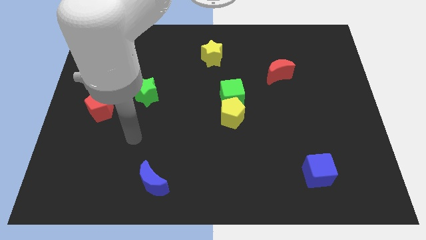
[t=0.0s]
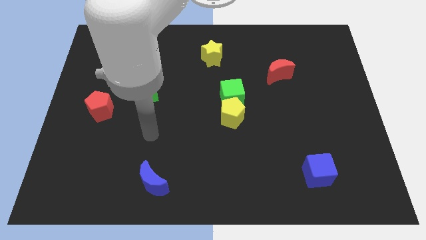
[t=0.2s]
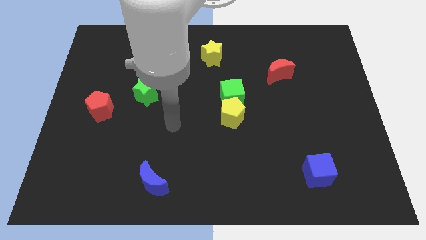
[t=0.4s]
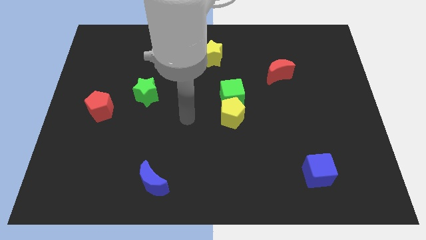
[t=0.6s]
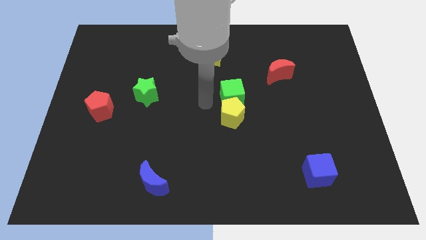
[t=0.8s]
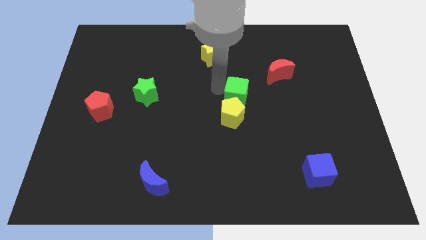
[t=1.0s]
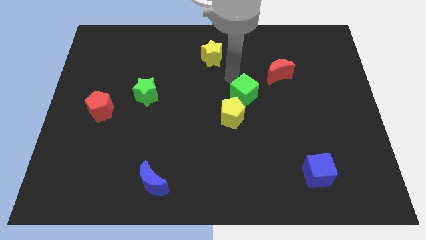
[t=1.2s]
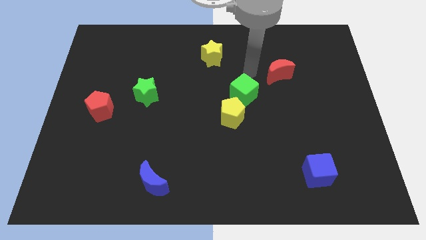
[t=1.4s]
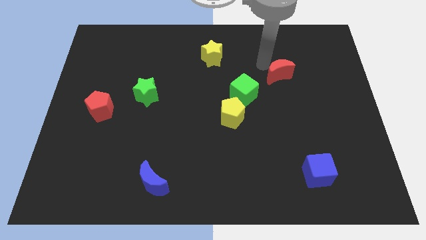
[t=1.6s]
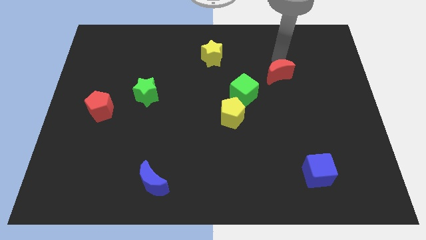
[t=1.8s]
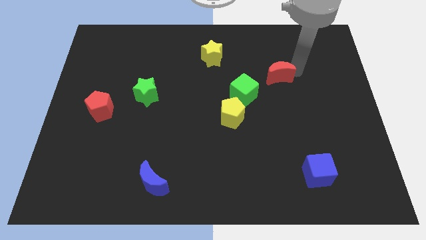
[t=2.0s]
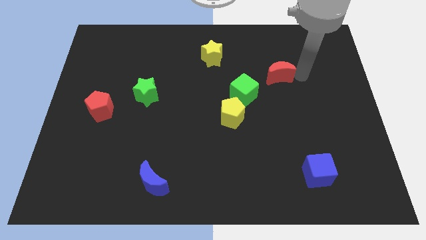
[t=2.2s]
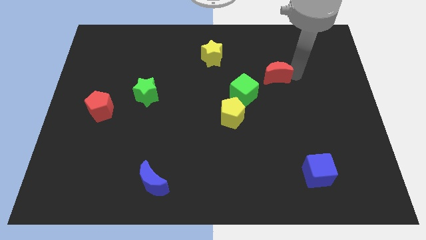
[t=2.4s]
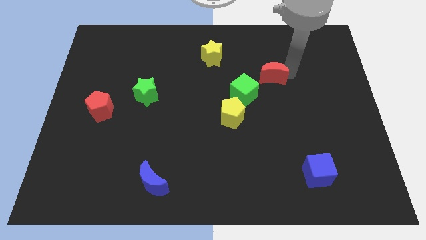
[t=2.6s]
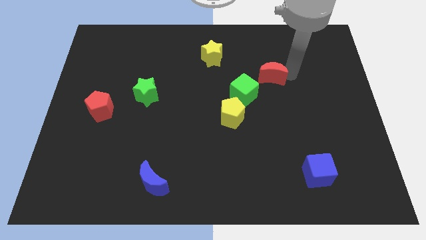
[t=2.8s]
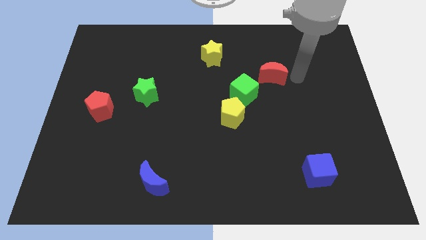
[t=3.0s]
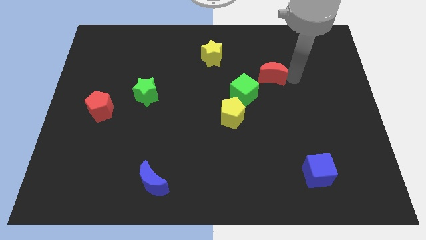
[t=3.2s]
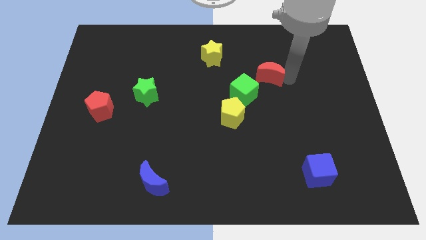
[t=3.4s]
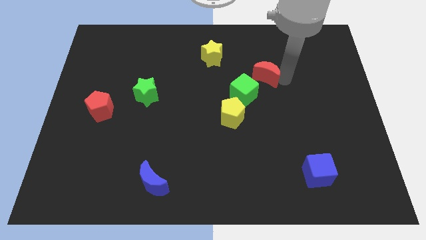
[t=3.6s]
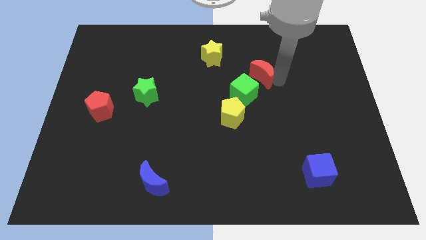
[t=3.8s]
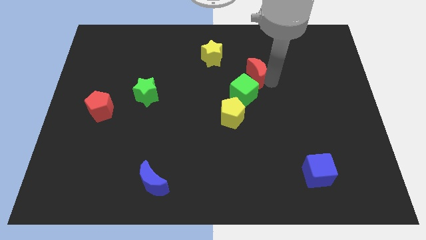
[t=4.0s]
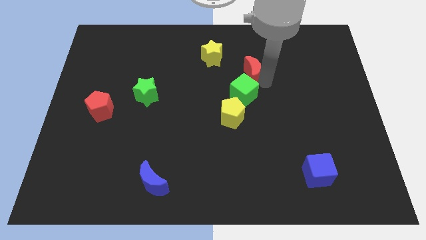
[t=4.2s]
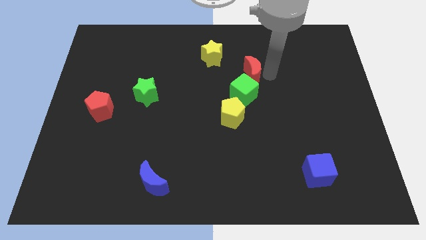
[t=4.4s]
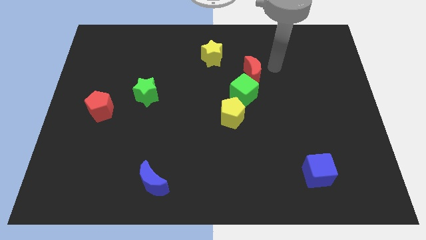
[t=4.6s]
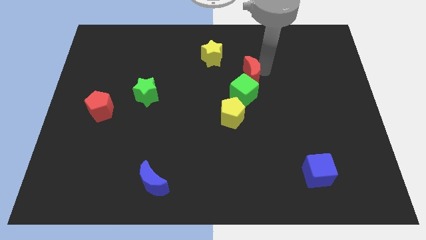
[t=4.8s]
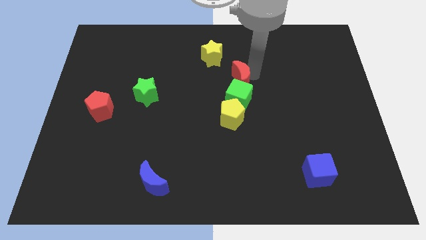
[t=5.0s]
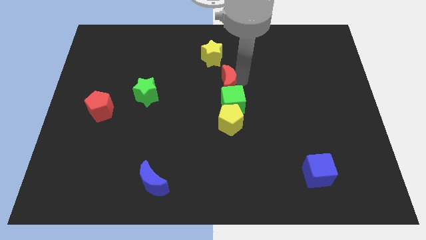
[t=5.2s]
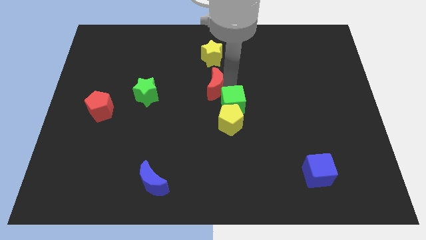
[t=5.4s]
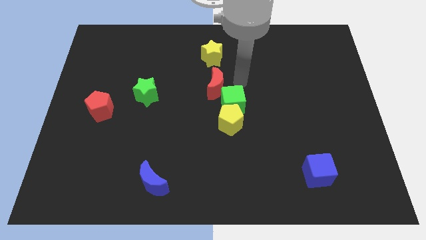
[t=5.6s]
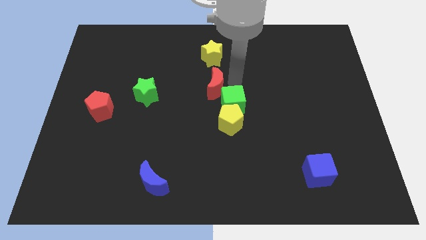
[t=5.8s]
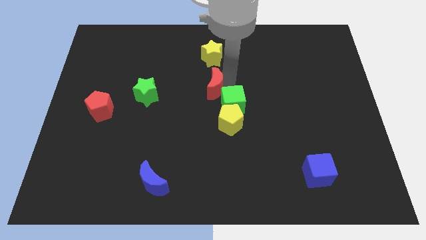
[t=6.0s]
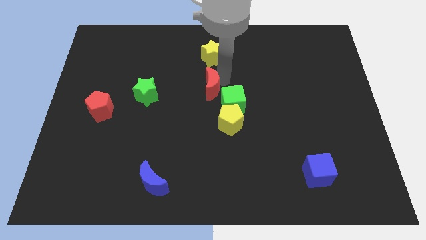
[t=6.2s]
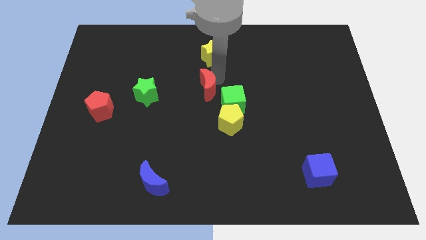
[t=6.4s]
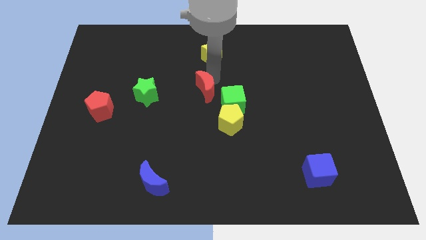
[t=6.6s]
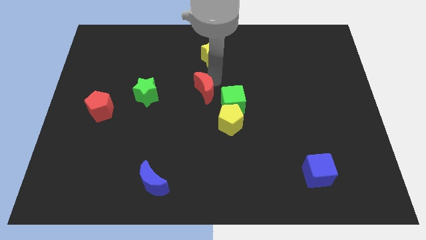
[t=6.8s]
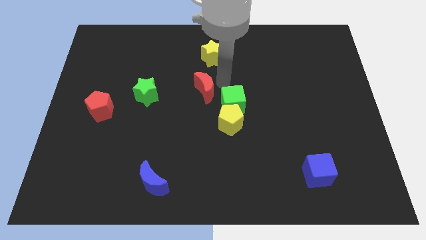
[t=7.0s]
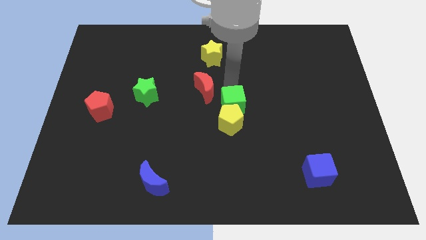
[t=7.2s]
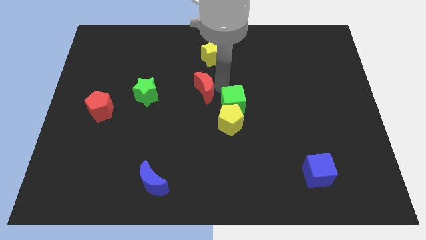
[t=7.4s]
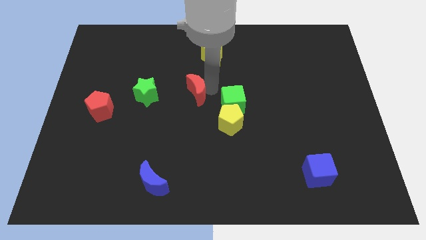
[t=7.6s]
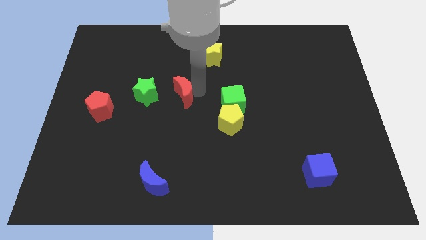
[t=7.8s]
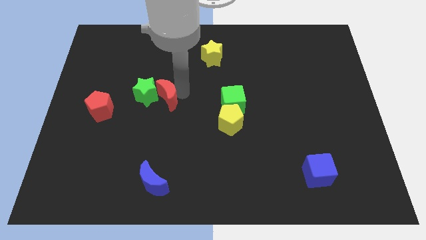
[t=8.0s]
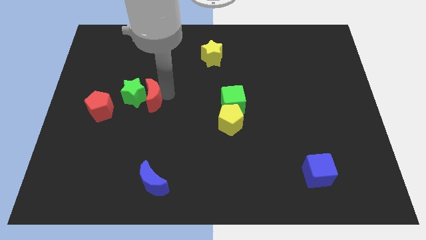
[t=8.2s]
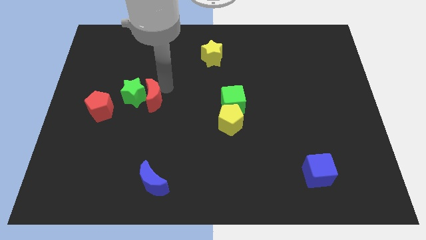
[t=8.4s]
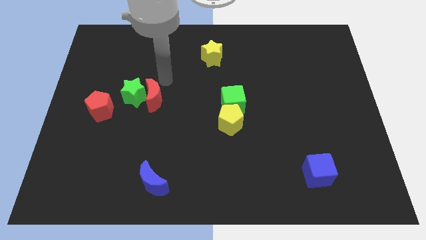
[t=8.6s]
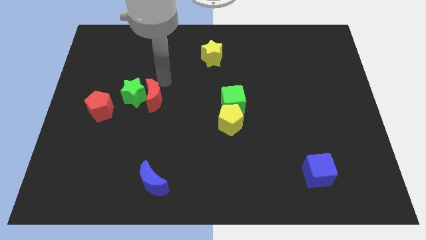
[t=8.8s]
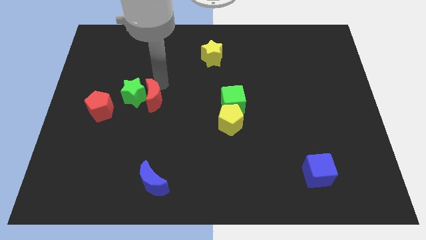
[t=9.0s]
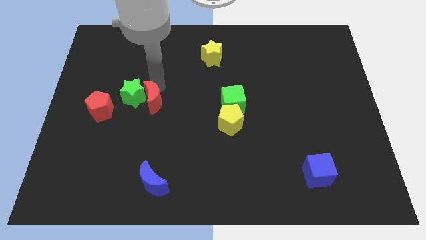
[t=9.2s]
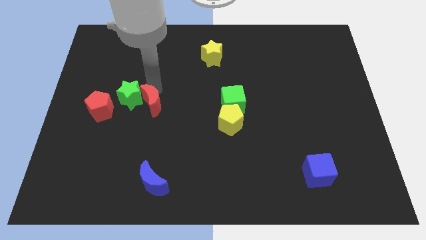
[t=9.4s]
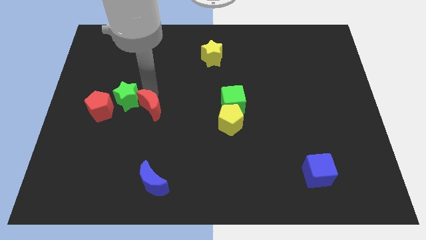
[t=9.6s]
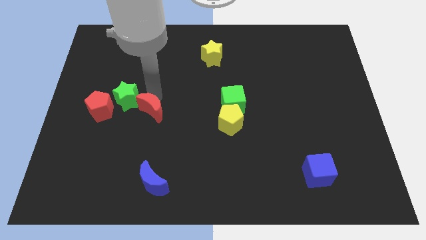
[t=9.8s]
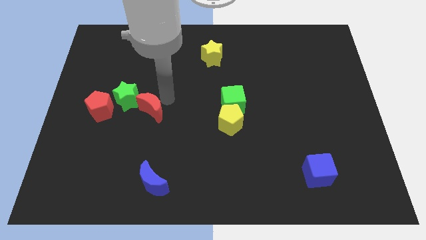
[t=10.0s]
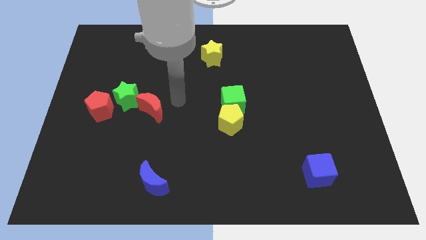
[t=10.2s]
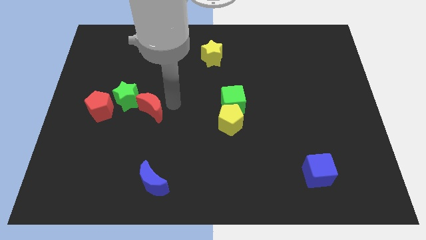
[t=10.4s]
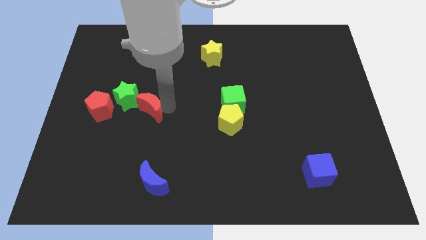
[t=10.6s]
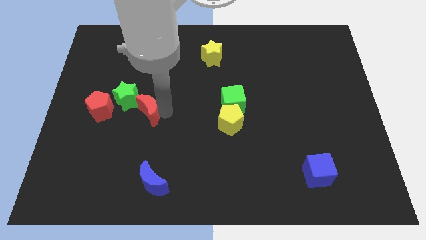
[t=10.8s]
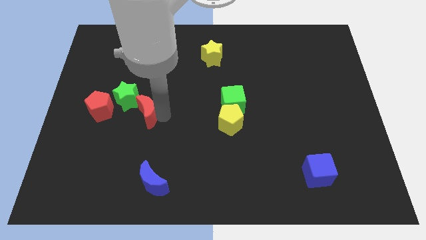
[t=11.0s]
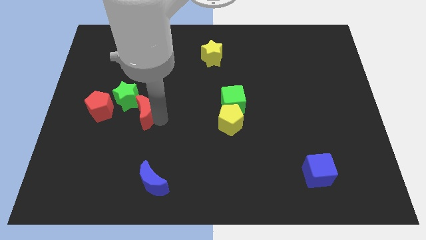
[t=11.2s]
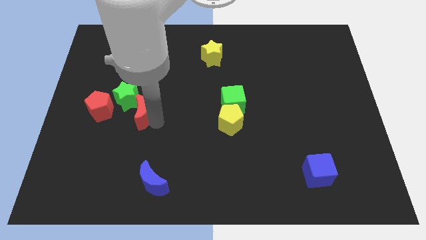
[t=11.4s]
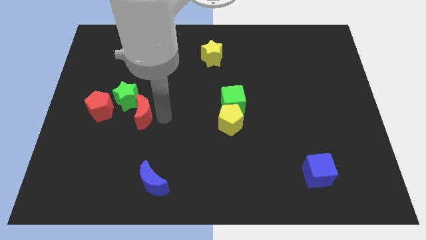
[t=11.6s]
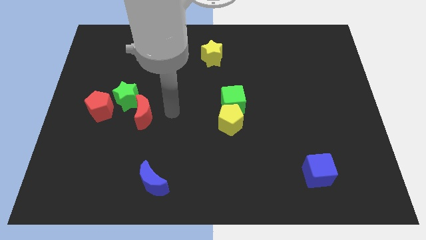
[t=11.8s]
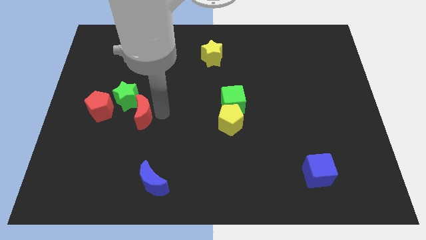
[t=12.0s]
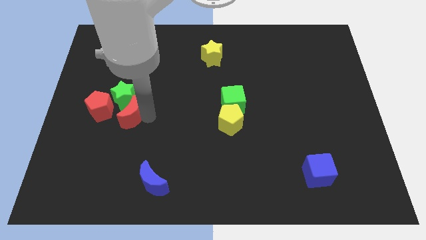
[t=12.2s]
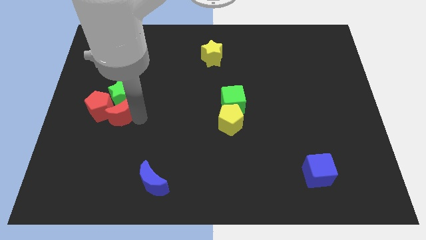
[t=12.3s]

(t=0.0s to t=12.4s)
slide the red moon to the red pentagon

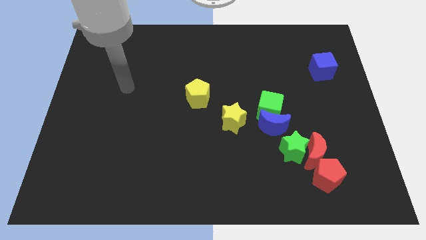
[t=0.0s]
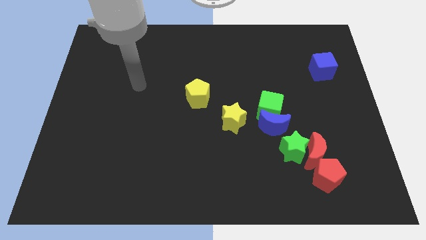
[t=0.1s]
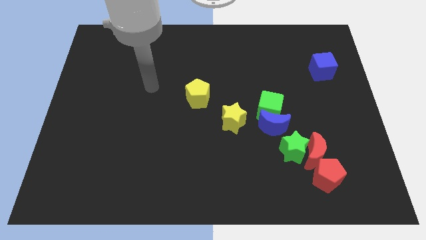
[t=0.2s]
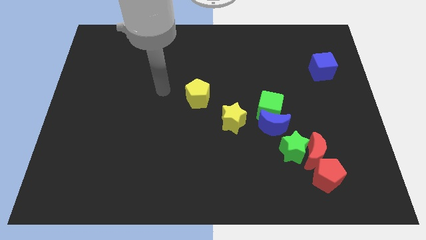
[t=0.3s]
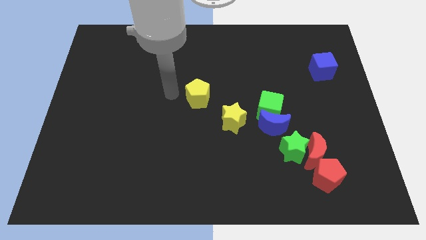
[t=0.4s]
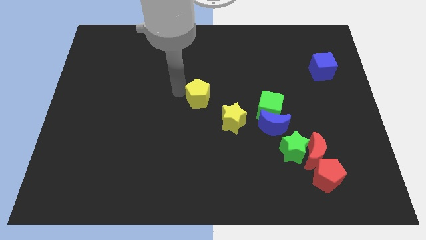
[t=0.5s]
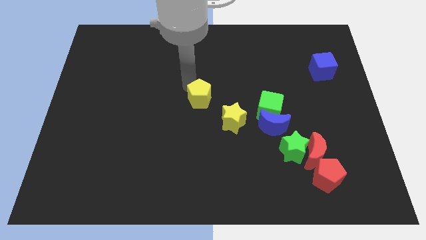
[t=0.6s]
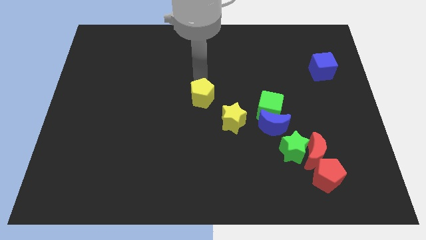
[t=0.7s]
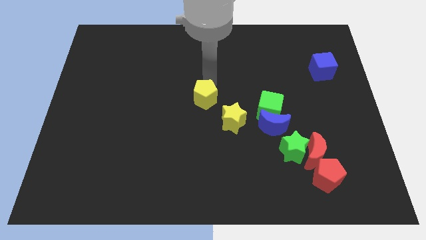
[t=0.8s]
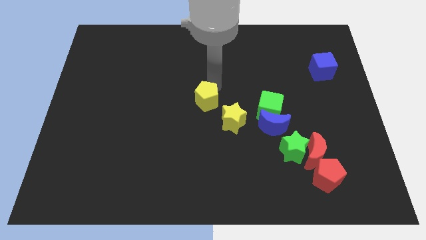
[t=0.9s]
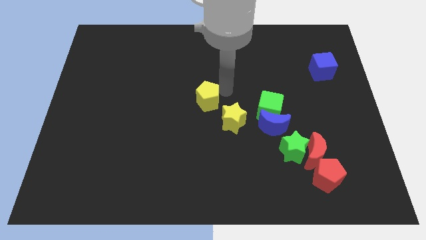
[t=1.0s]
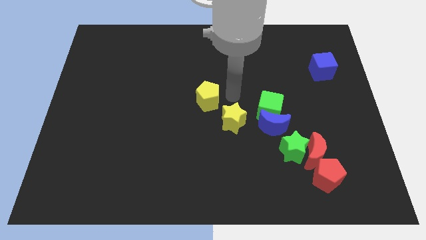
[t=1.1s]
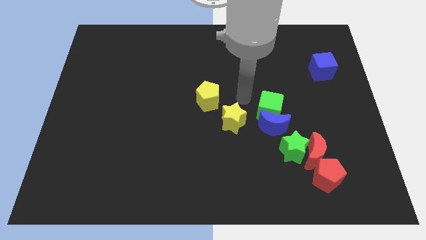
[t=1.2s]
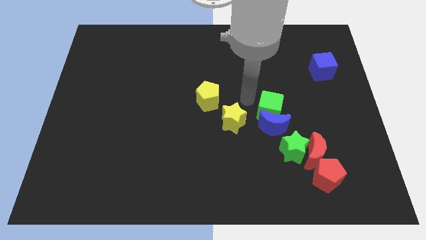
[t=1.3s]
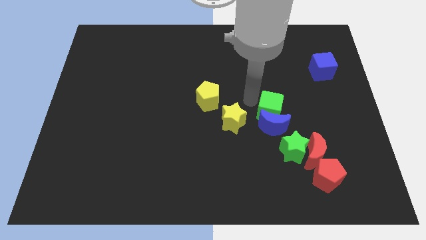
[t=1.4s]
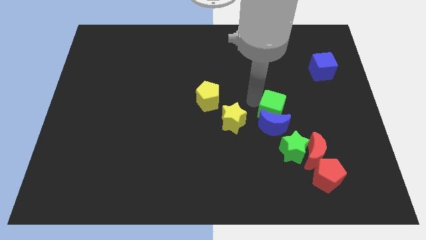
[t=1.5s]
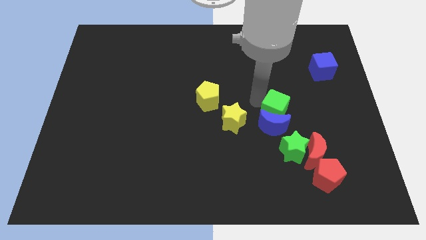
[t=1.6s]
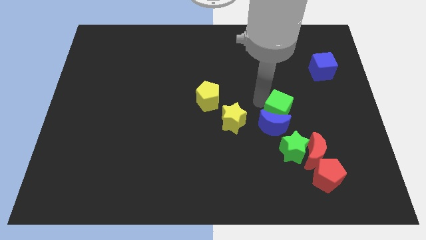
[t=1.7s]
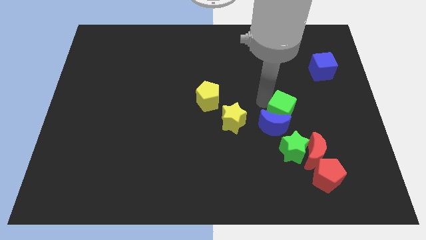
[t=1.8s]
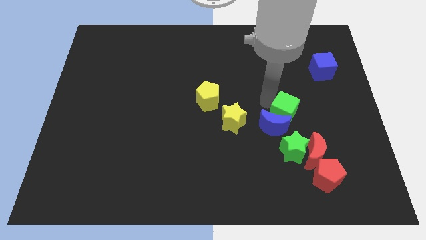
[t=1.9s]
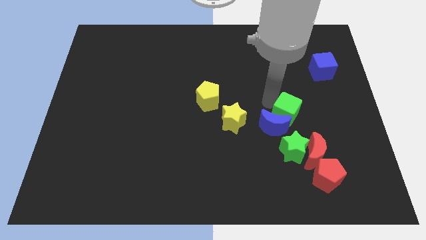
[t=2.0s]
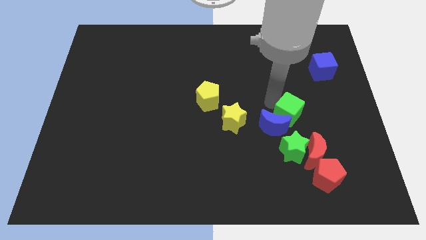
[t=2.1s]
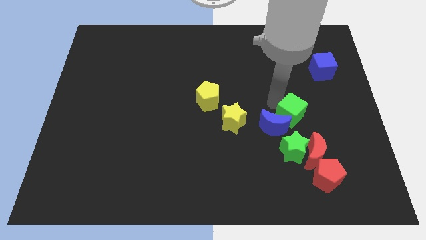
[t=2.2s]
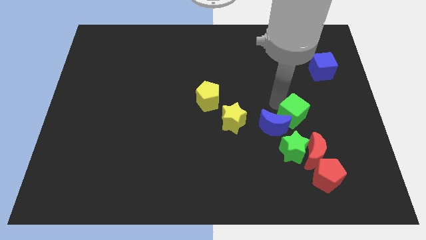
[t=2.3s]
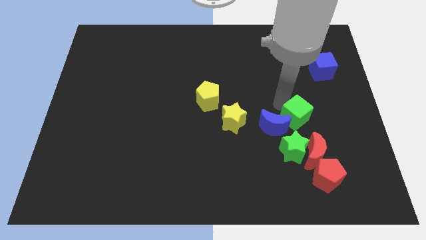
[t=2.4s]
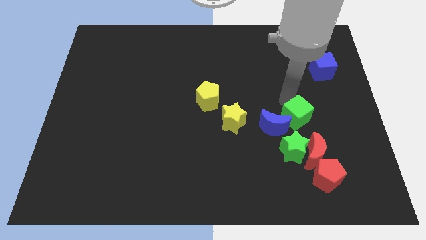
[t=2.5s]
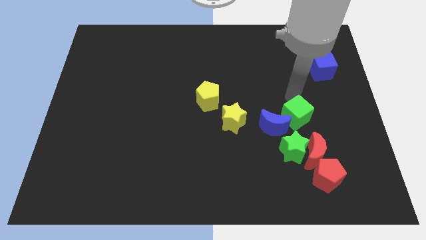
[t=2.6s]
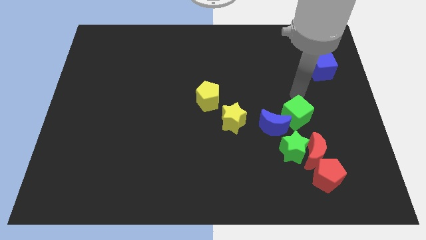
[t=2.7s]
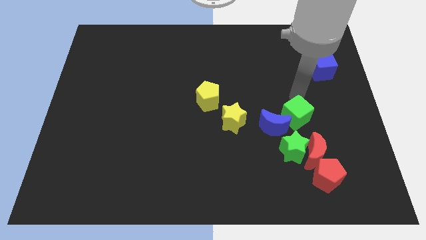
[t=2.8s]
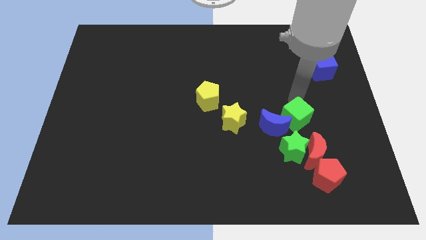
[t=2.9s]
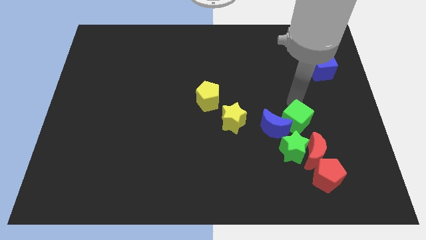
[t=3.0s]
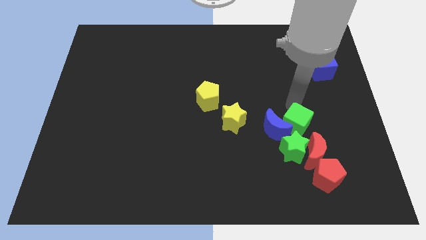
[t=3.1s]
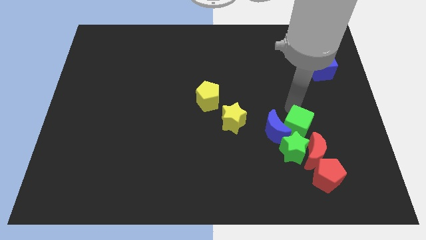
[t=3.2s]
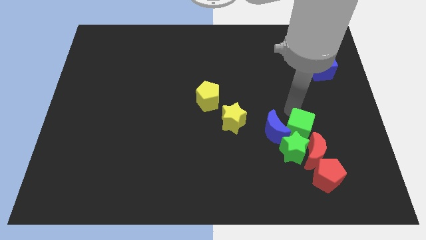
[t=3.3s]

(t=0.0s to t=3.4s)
move the green cube next to the green star
